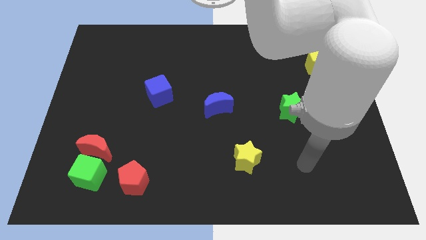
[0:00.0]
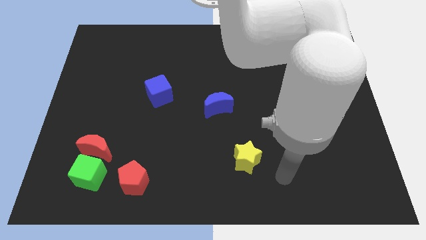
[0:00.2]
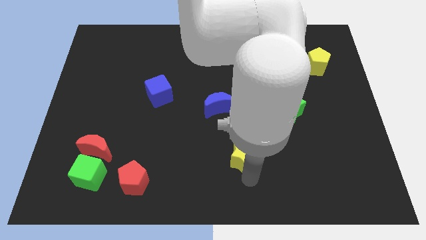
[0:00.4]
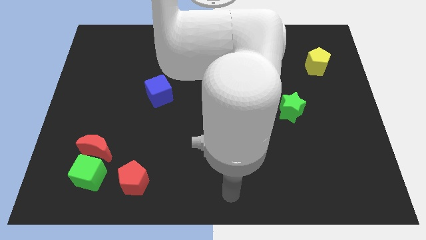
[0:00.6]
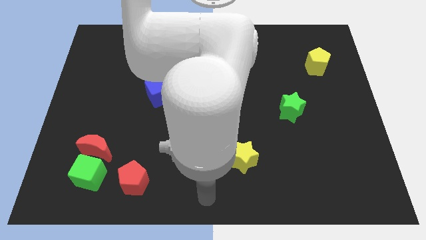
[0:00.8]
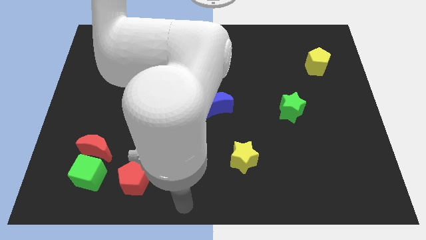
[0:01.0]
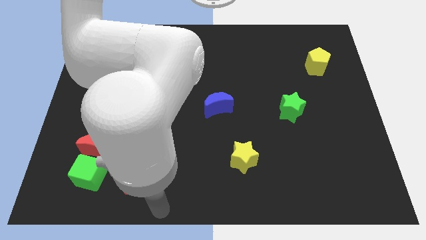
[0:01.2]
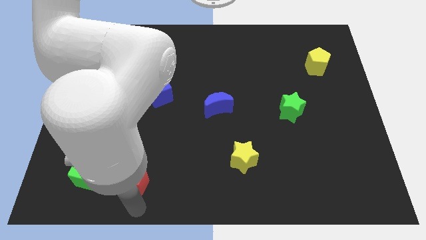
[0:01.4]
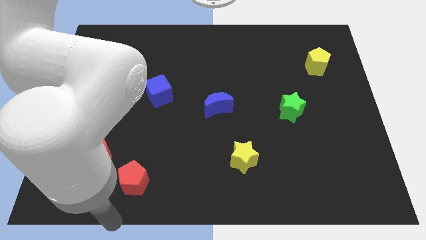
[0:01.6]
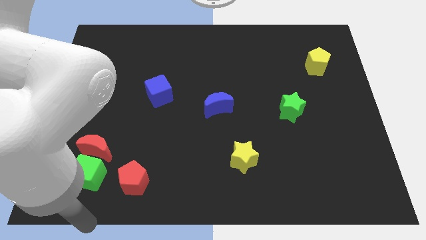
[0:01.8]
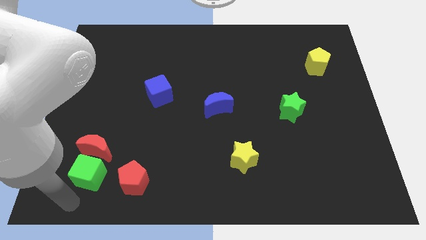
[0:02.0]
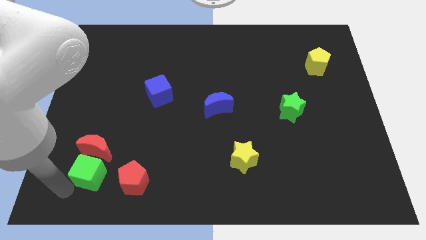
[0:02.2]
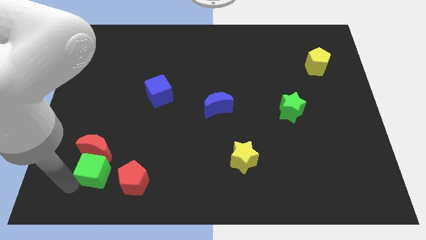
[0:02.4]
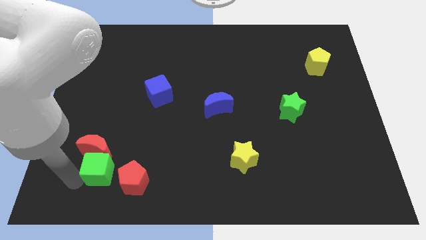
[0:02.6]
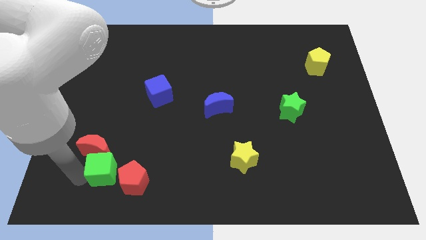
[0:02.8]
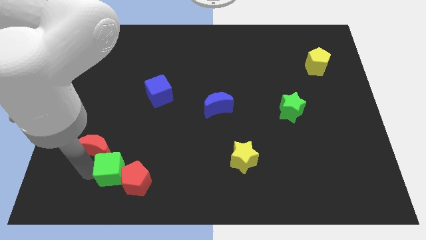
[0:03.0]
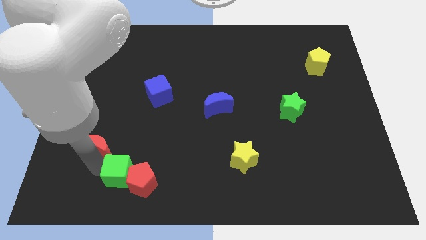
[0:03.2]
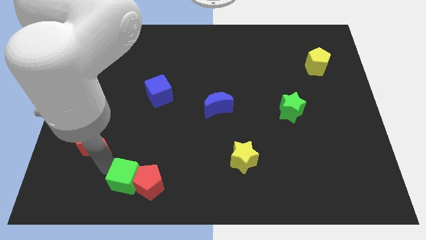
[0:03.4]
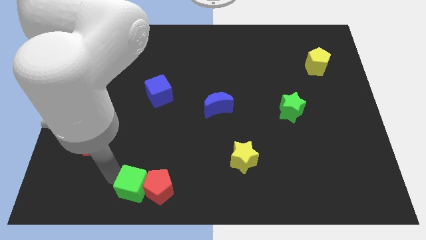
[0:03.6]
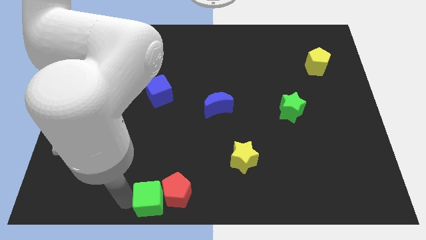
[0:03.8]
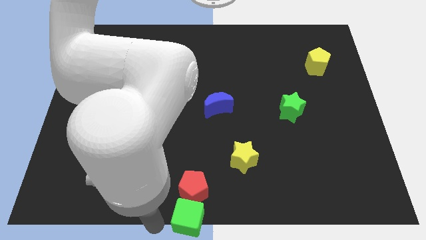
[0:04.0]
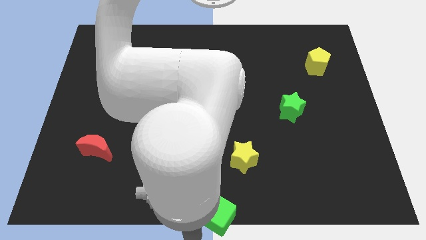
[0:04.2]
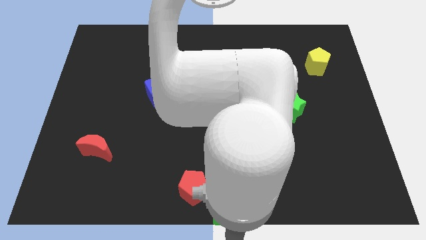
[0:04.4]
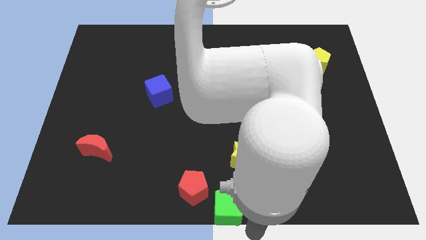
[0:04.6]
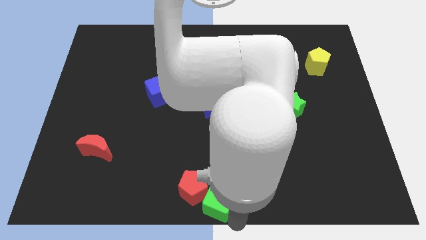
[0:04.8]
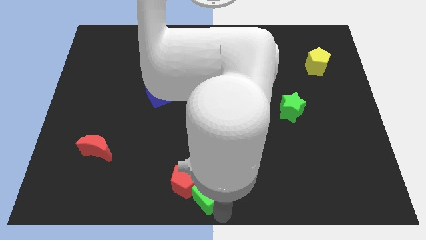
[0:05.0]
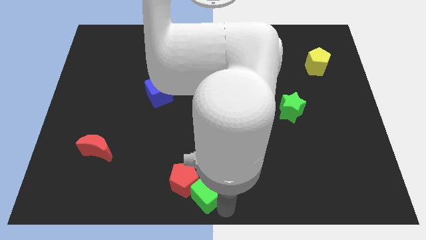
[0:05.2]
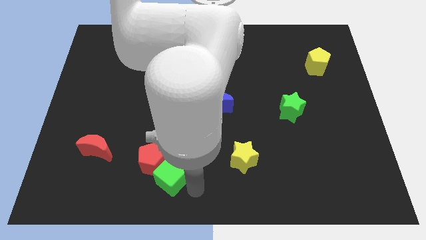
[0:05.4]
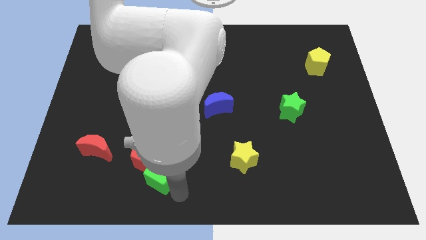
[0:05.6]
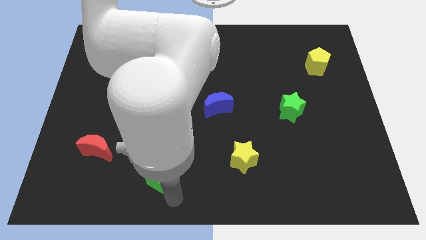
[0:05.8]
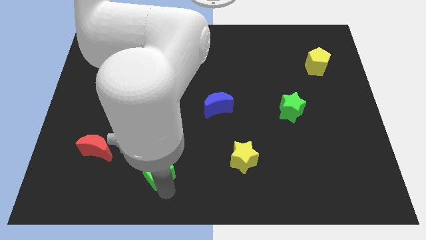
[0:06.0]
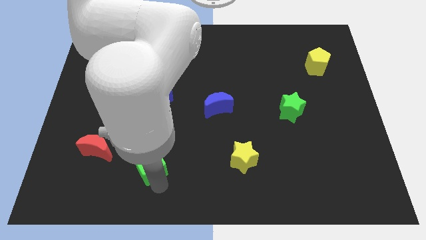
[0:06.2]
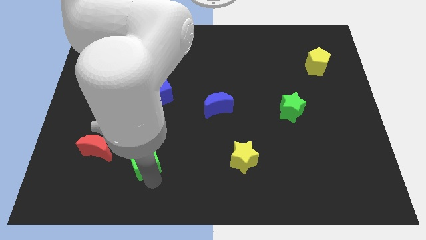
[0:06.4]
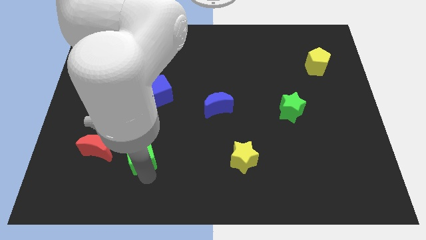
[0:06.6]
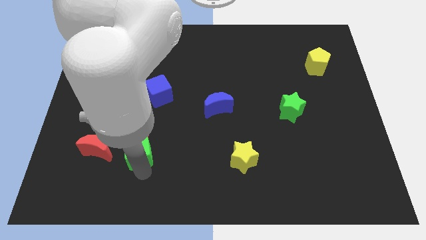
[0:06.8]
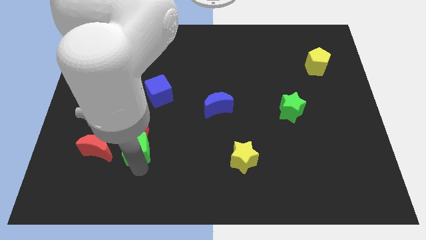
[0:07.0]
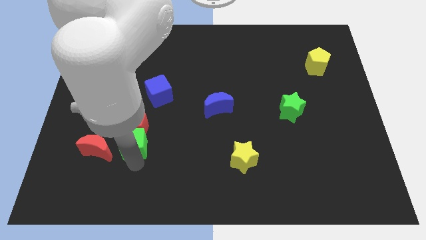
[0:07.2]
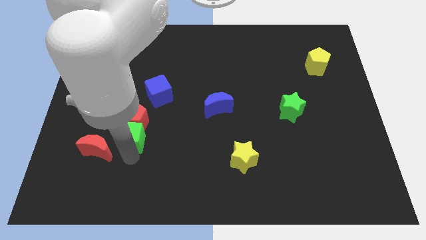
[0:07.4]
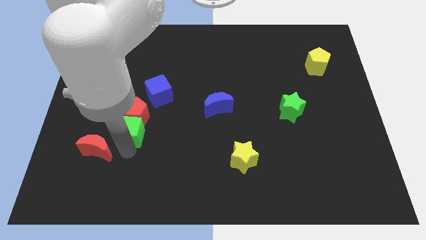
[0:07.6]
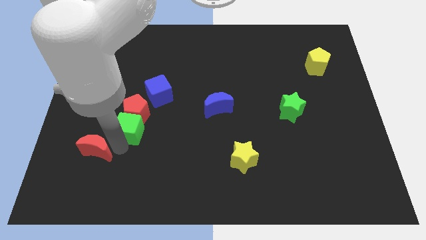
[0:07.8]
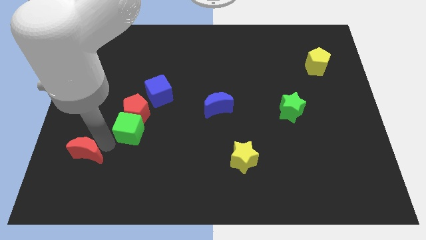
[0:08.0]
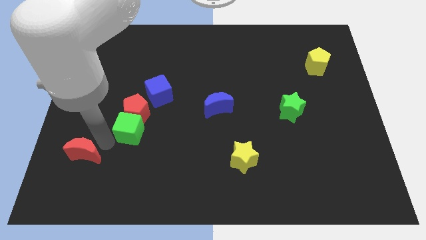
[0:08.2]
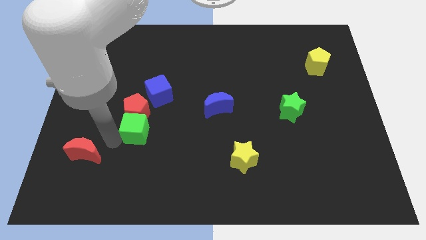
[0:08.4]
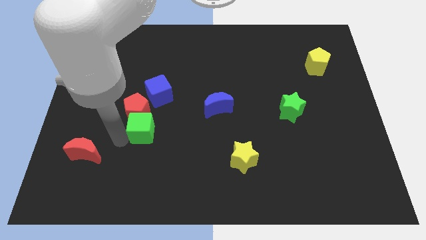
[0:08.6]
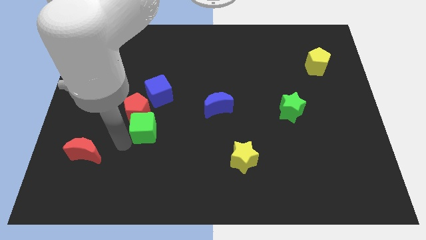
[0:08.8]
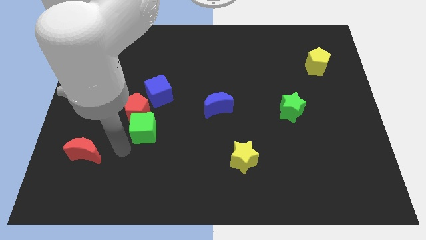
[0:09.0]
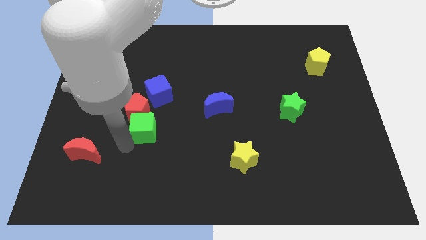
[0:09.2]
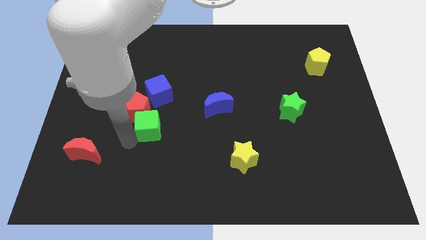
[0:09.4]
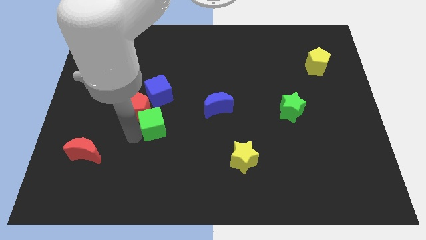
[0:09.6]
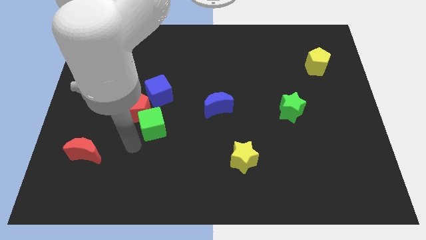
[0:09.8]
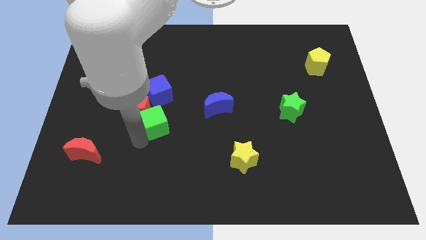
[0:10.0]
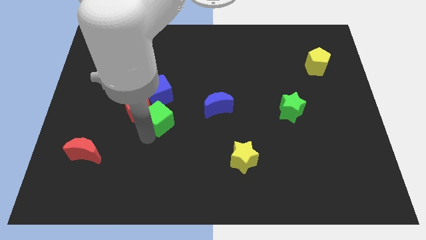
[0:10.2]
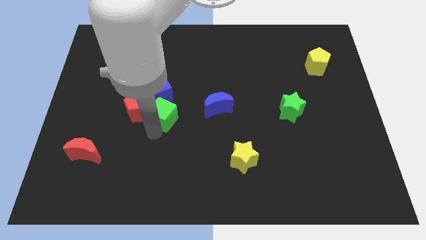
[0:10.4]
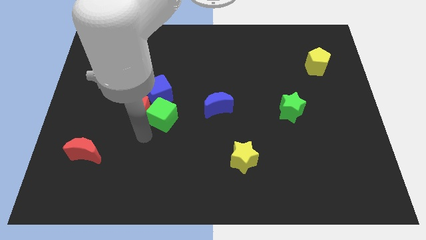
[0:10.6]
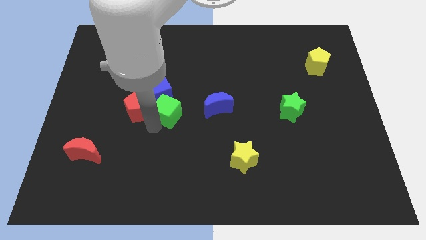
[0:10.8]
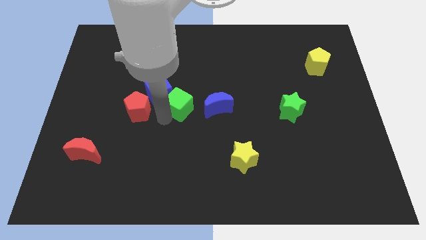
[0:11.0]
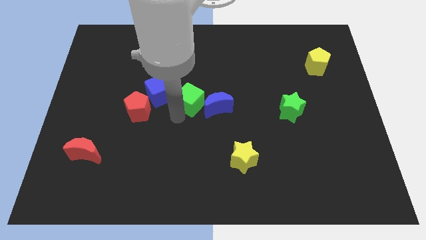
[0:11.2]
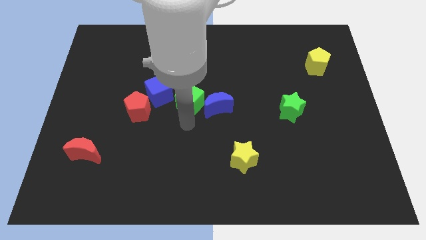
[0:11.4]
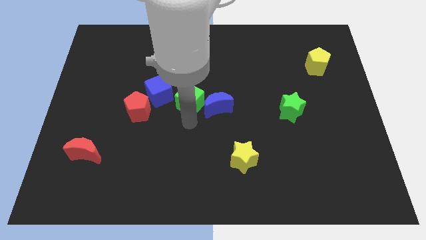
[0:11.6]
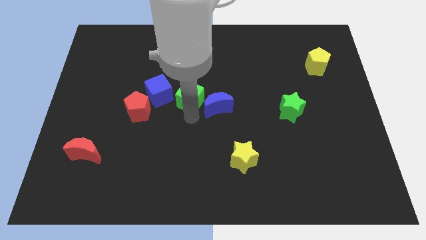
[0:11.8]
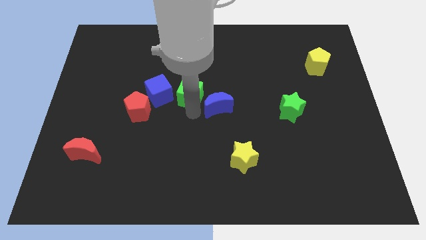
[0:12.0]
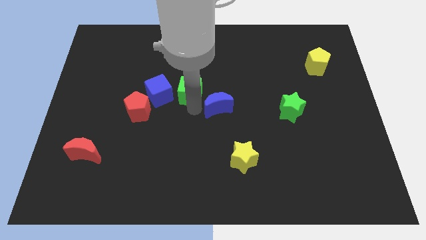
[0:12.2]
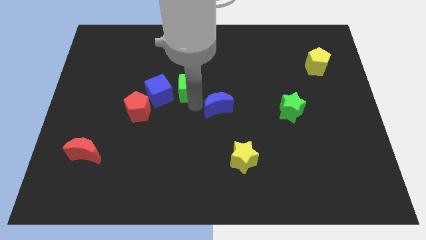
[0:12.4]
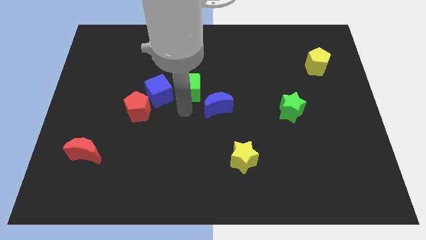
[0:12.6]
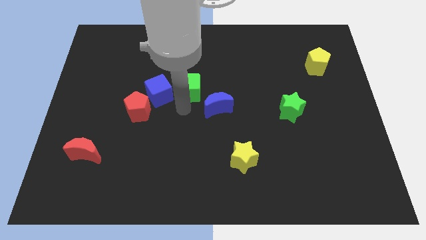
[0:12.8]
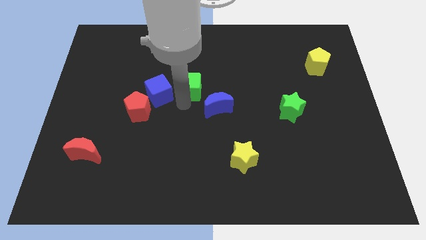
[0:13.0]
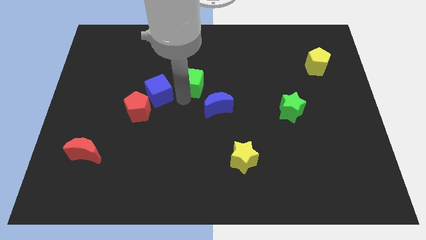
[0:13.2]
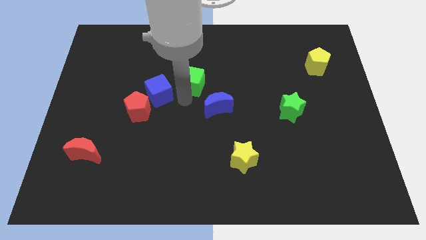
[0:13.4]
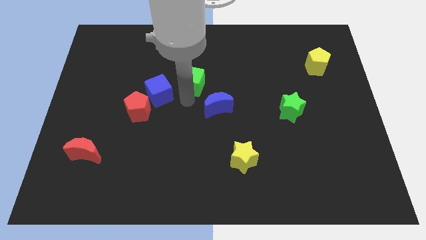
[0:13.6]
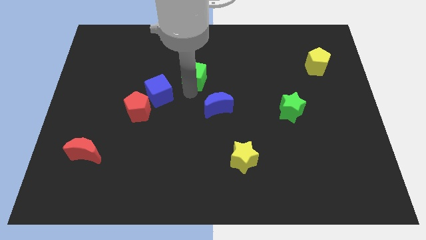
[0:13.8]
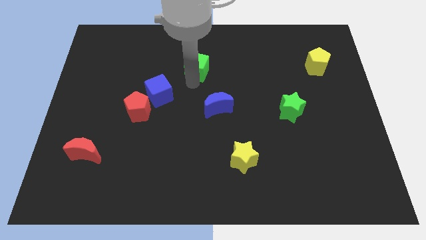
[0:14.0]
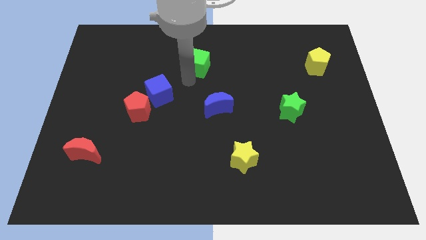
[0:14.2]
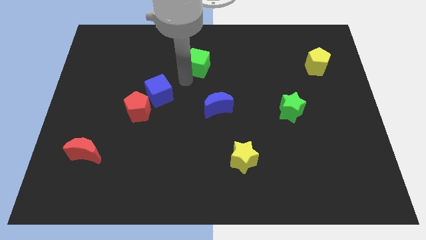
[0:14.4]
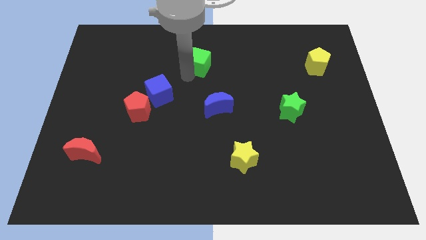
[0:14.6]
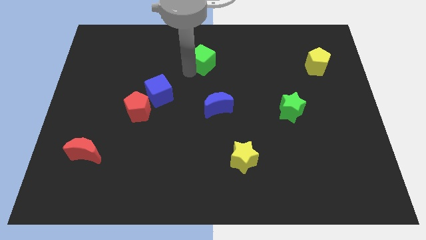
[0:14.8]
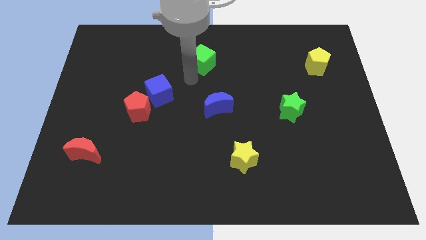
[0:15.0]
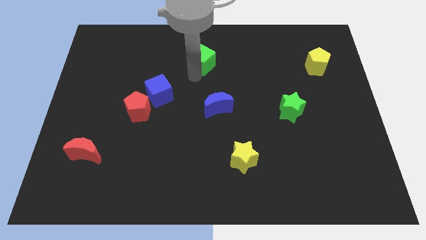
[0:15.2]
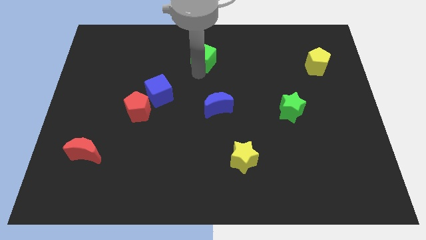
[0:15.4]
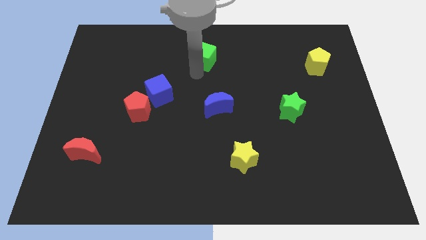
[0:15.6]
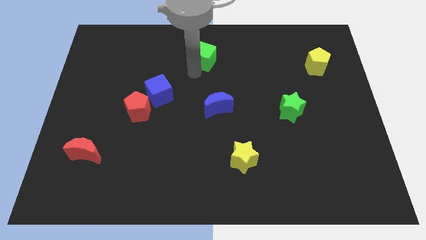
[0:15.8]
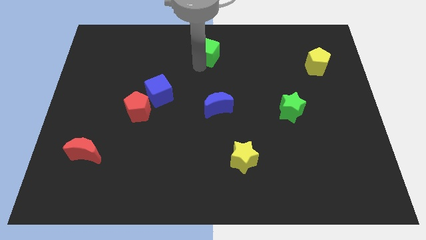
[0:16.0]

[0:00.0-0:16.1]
move the green cube to the top side

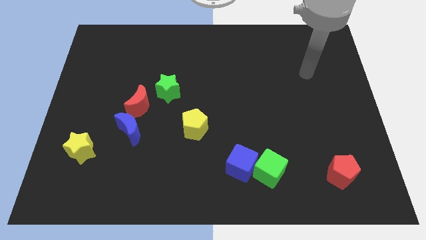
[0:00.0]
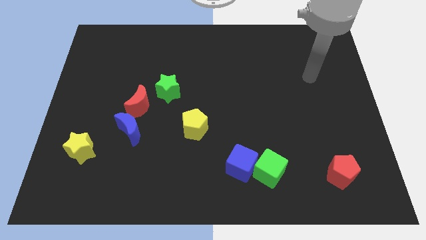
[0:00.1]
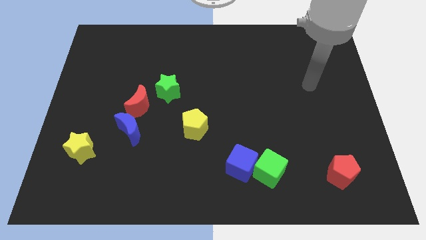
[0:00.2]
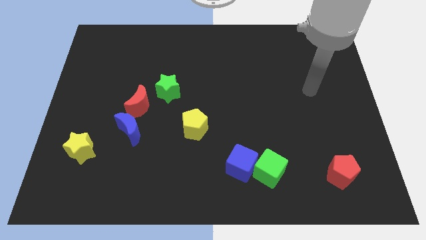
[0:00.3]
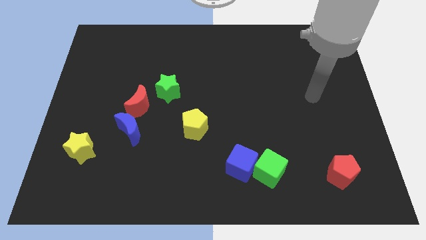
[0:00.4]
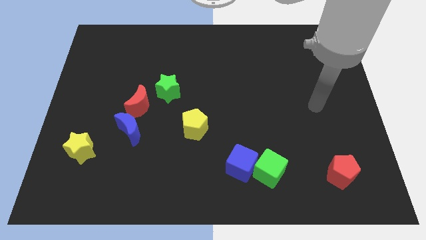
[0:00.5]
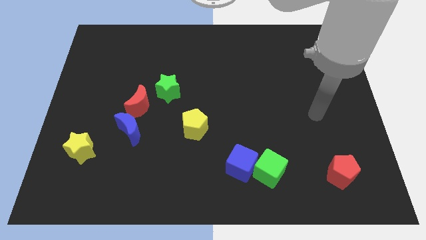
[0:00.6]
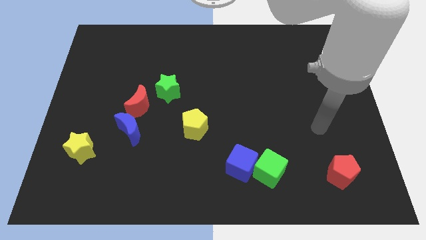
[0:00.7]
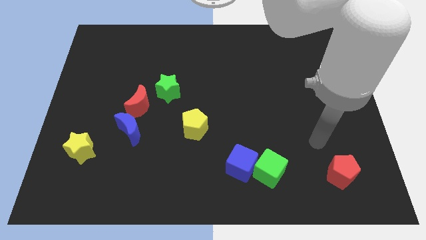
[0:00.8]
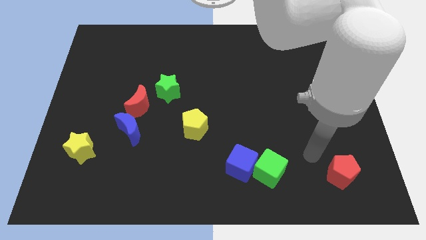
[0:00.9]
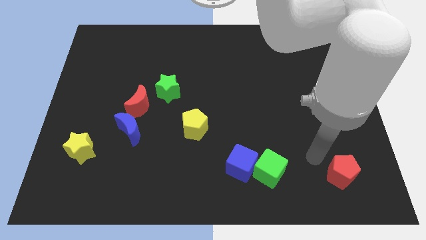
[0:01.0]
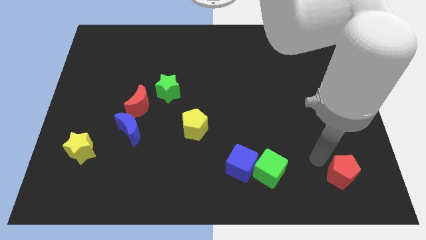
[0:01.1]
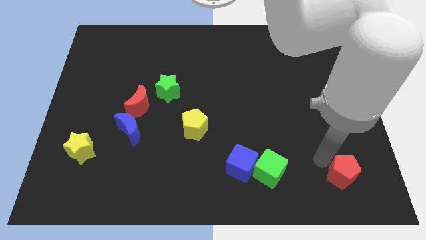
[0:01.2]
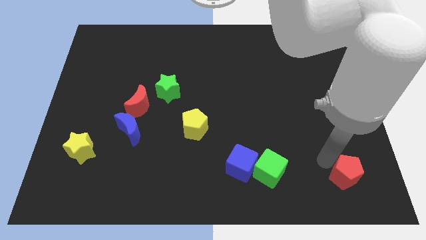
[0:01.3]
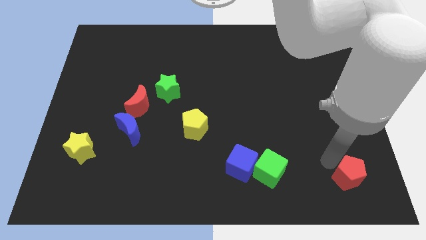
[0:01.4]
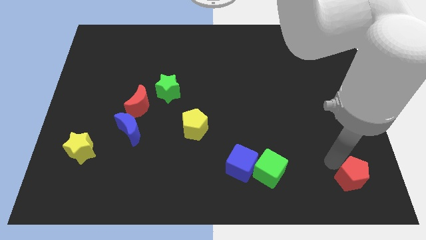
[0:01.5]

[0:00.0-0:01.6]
put the red pentagon to the bottom right
